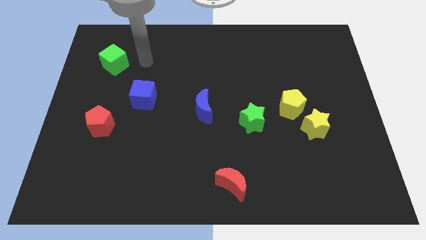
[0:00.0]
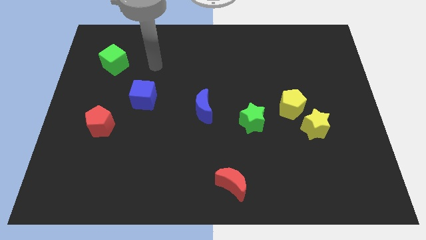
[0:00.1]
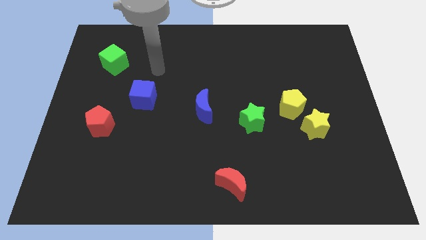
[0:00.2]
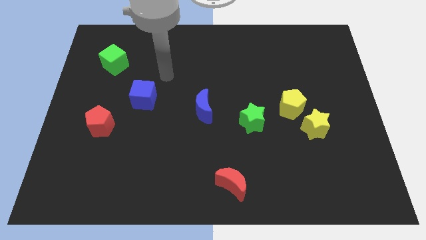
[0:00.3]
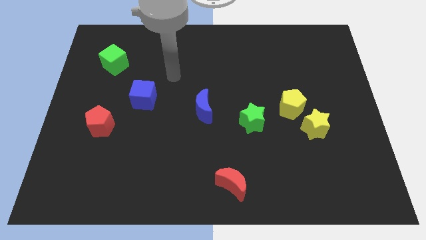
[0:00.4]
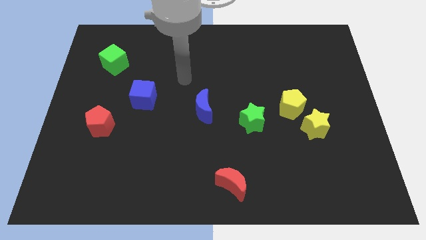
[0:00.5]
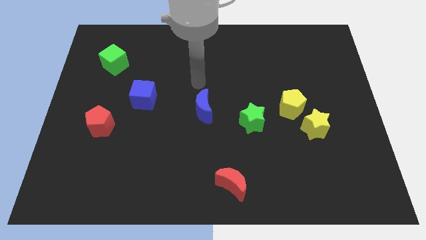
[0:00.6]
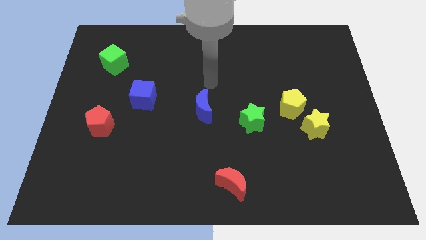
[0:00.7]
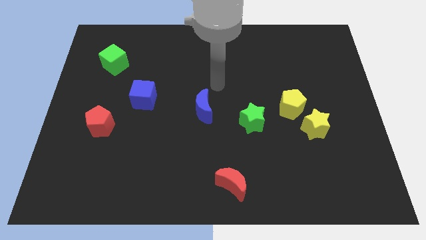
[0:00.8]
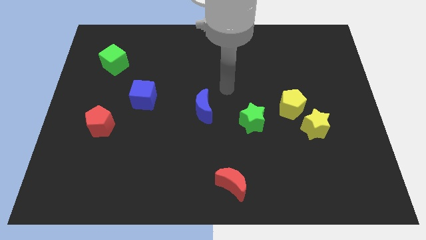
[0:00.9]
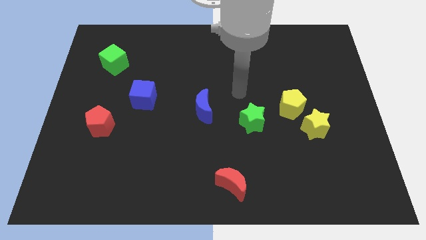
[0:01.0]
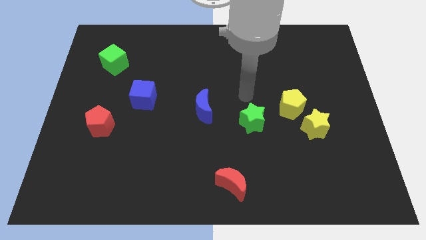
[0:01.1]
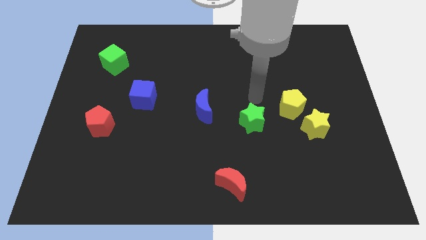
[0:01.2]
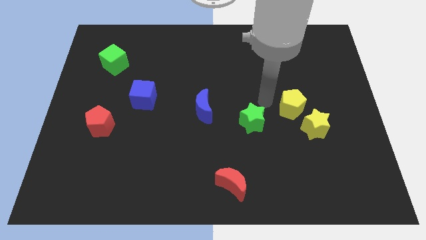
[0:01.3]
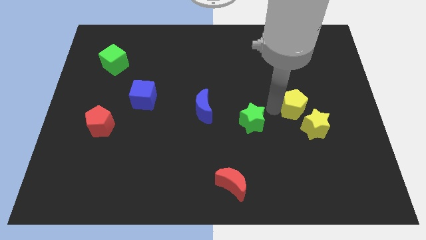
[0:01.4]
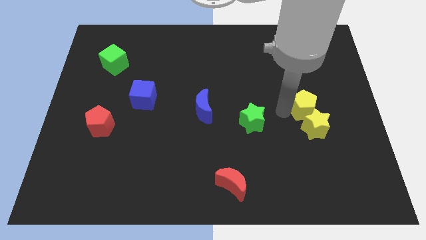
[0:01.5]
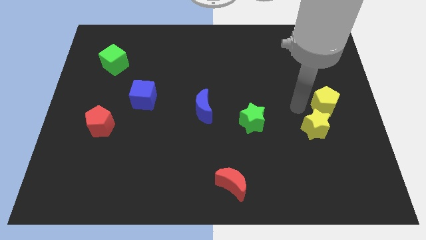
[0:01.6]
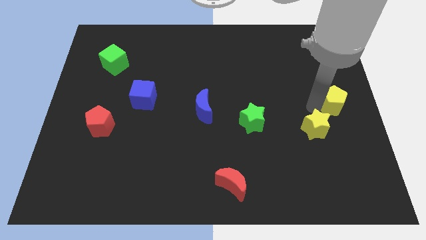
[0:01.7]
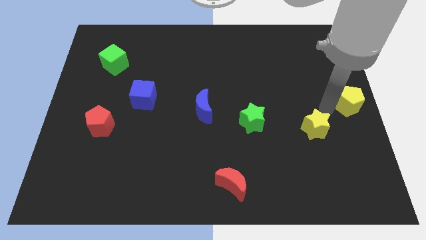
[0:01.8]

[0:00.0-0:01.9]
move the yellow star away from the yellow pentagon

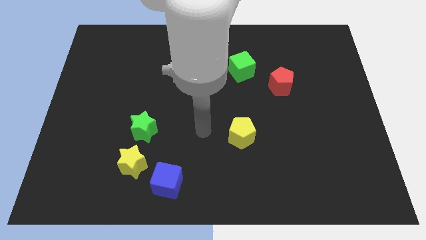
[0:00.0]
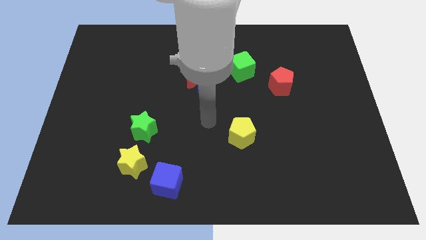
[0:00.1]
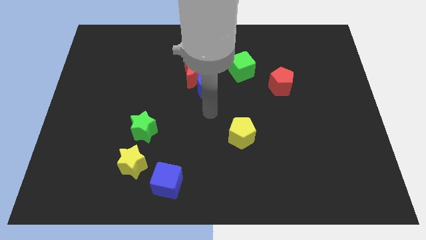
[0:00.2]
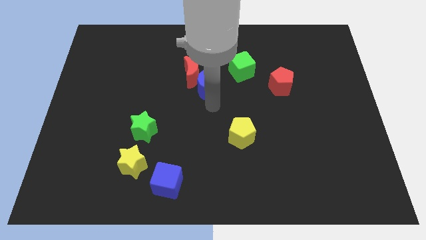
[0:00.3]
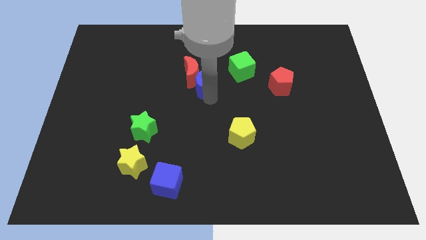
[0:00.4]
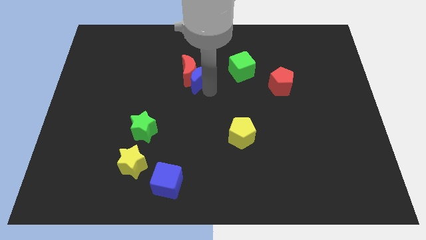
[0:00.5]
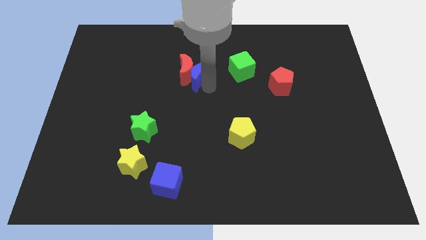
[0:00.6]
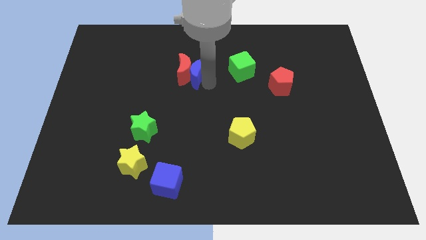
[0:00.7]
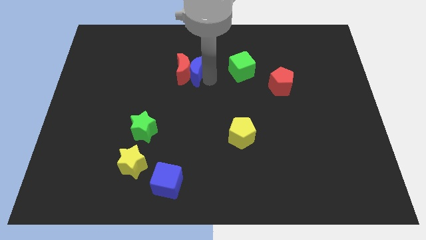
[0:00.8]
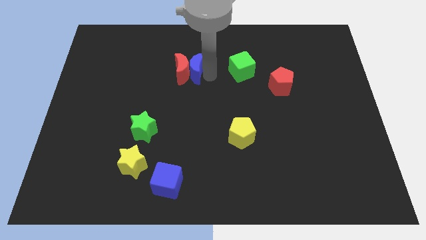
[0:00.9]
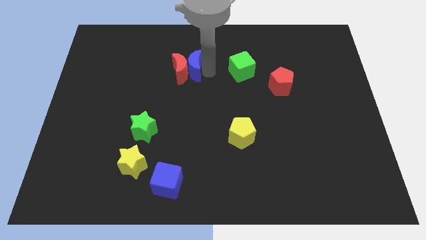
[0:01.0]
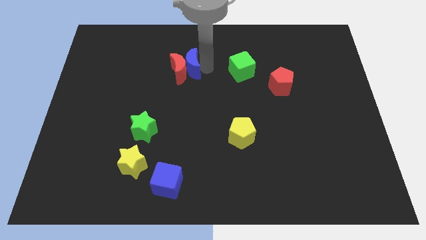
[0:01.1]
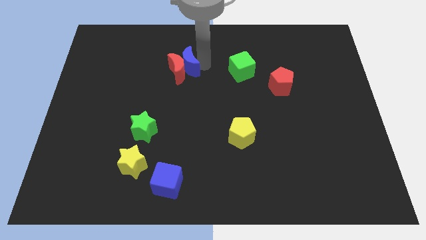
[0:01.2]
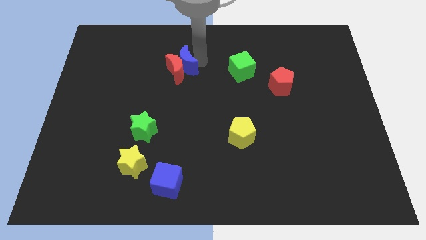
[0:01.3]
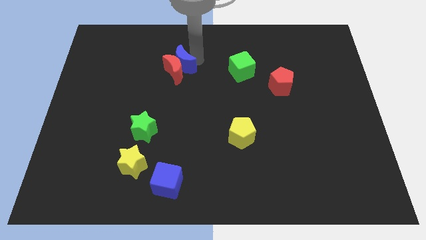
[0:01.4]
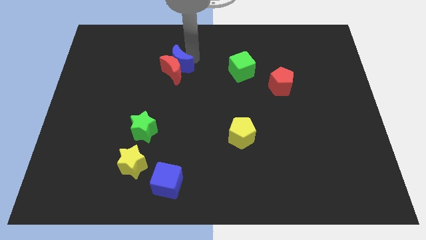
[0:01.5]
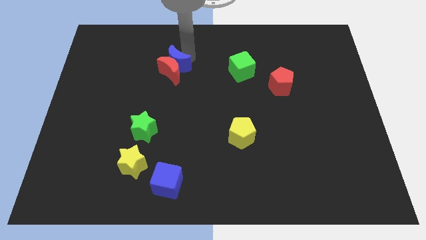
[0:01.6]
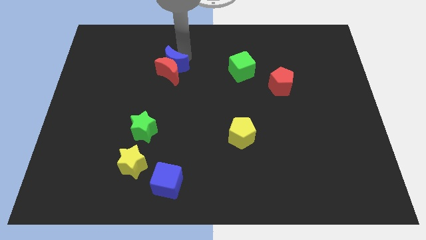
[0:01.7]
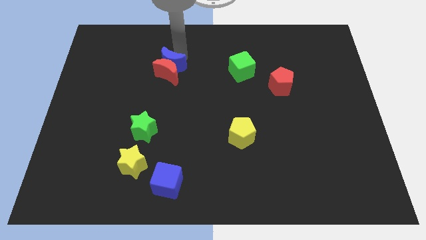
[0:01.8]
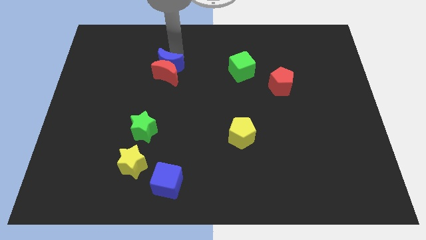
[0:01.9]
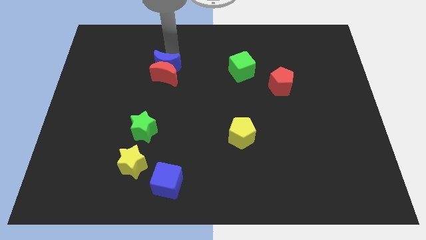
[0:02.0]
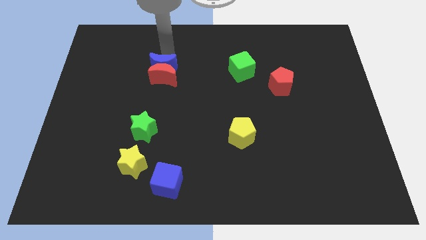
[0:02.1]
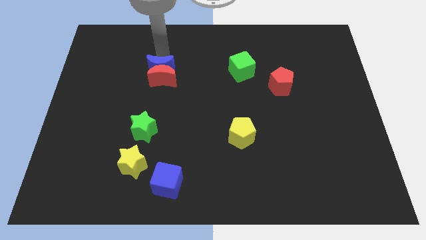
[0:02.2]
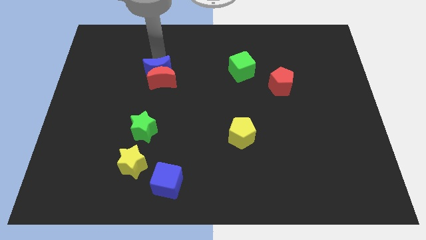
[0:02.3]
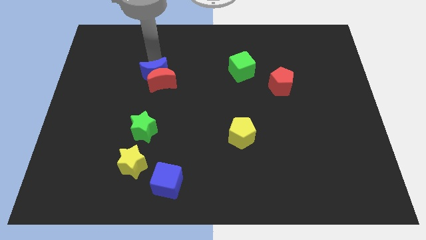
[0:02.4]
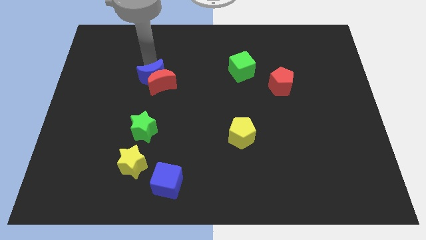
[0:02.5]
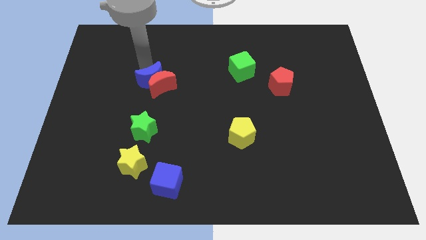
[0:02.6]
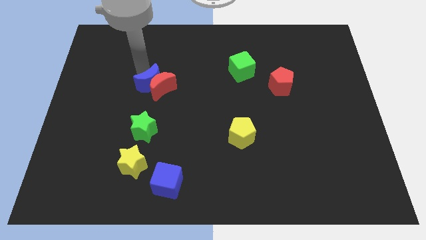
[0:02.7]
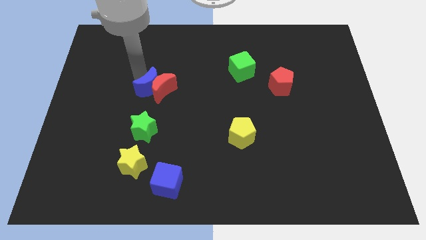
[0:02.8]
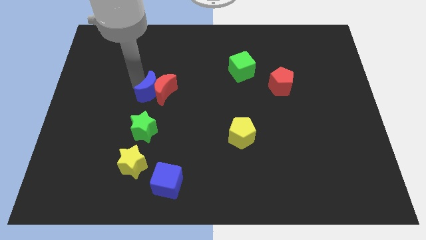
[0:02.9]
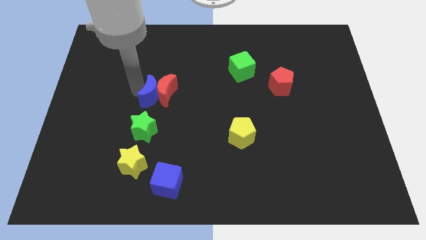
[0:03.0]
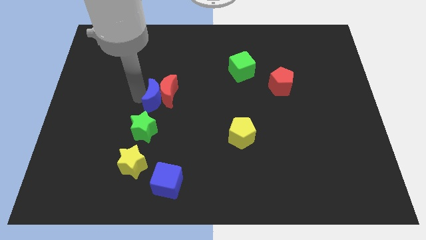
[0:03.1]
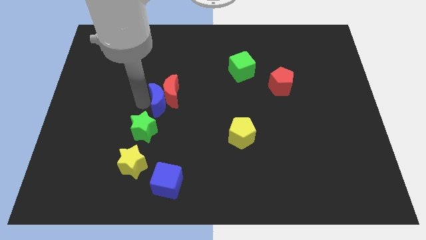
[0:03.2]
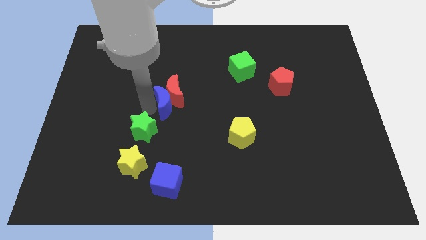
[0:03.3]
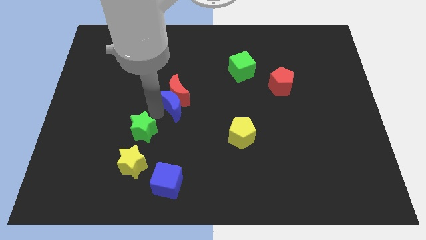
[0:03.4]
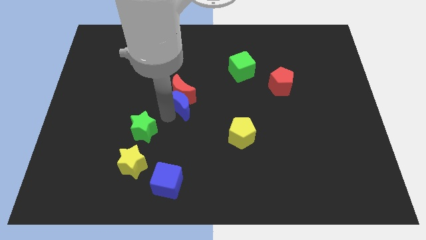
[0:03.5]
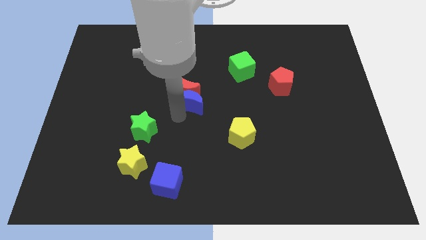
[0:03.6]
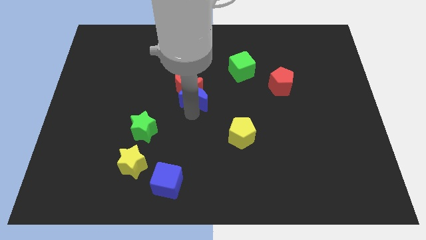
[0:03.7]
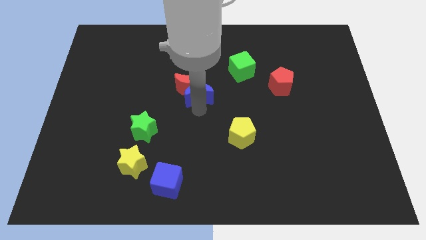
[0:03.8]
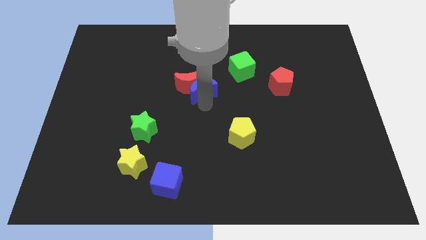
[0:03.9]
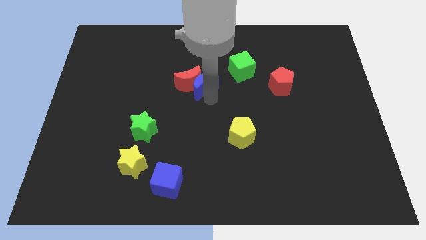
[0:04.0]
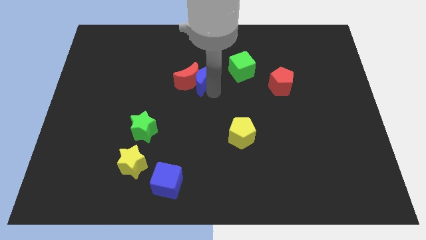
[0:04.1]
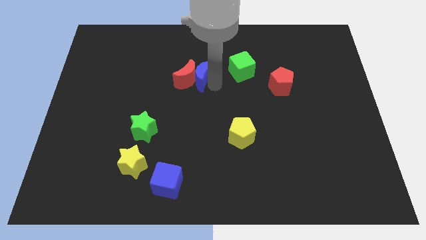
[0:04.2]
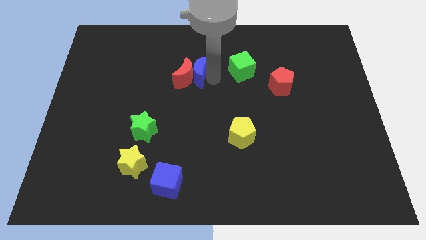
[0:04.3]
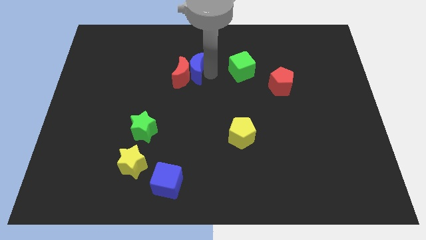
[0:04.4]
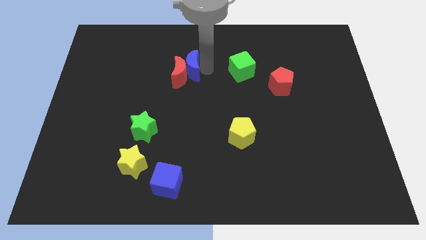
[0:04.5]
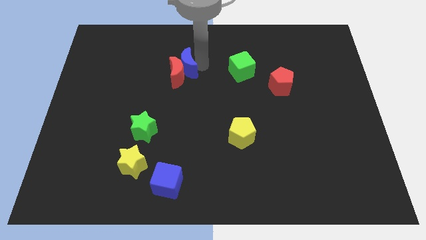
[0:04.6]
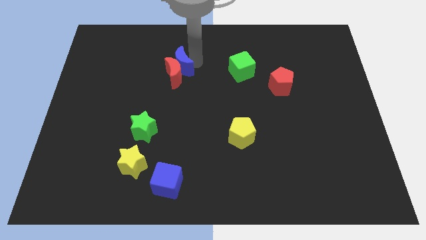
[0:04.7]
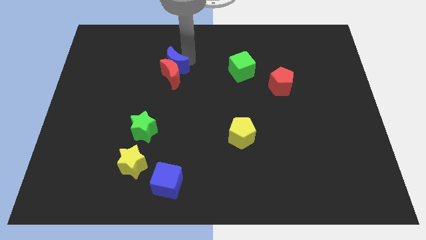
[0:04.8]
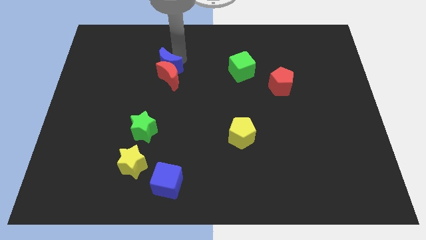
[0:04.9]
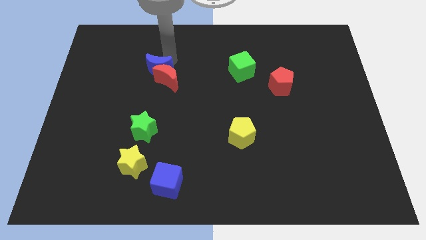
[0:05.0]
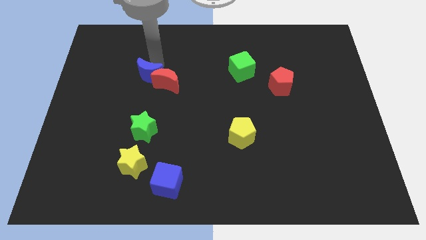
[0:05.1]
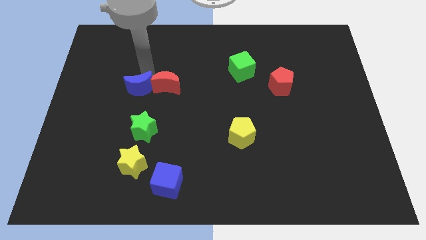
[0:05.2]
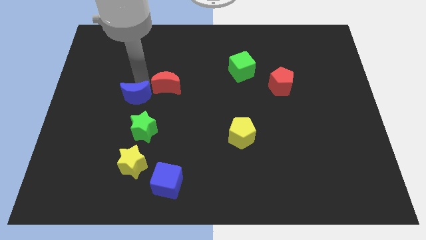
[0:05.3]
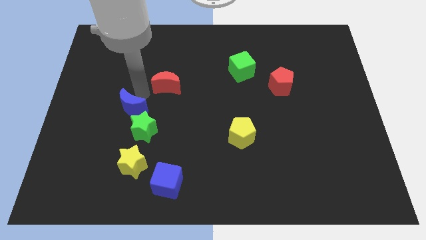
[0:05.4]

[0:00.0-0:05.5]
separate the red moon from the blue moon

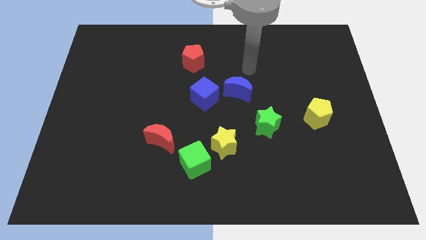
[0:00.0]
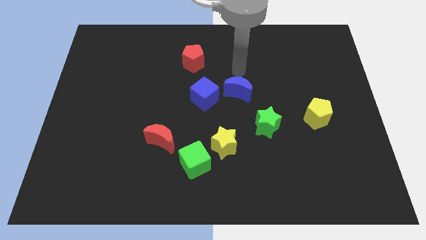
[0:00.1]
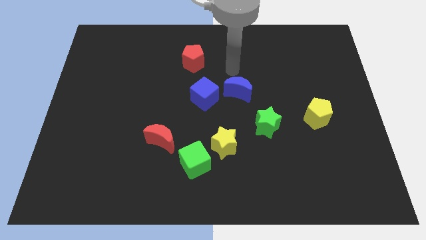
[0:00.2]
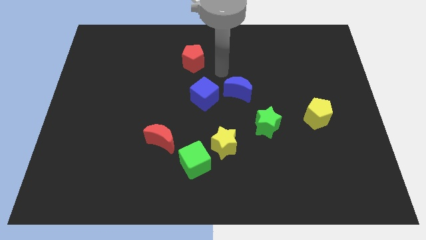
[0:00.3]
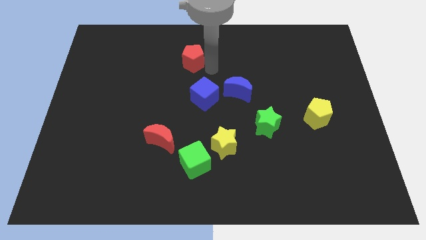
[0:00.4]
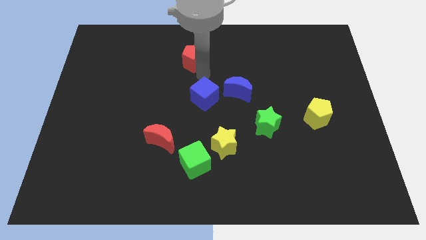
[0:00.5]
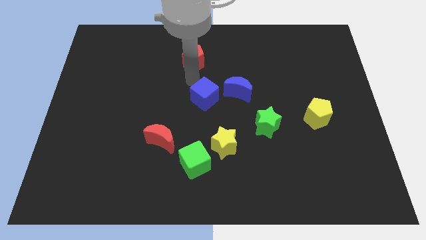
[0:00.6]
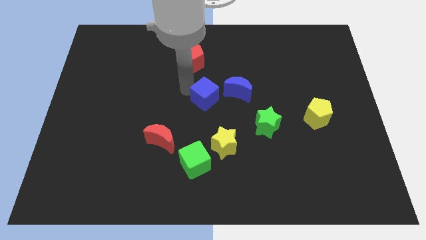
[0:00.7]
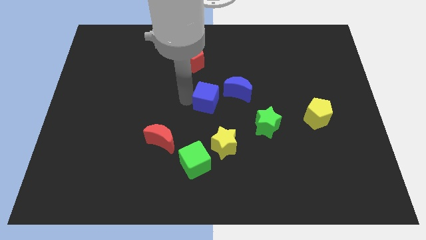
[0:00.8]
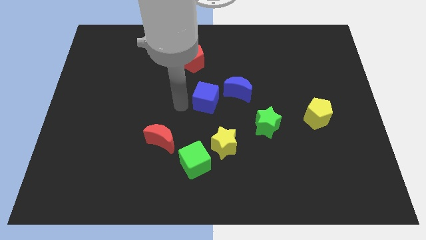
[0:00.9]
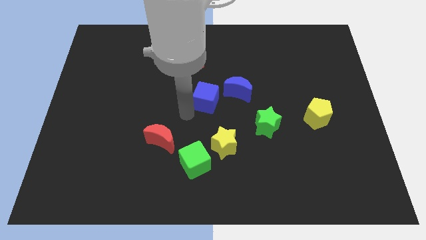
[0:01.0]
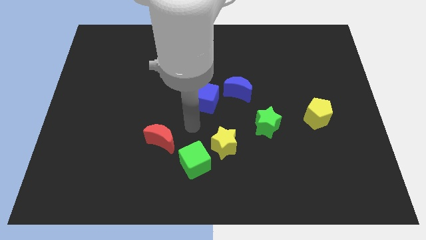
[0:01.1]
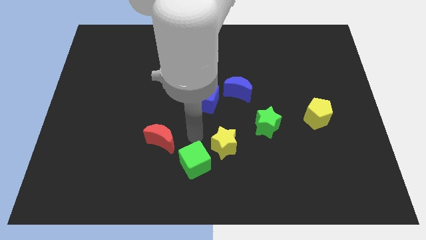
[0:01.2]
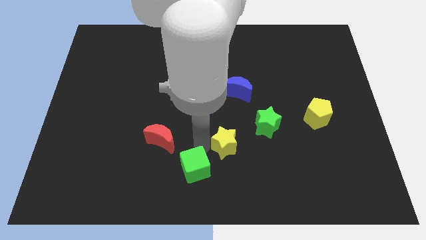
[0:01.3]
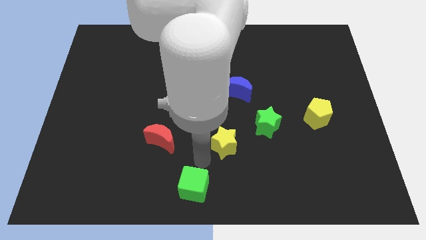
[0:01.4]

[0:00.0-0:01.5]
pull the yellow star apart from the green cube

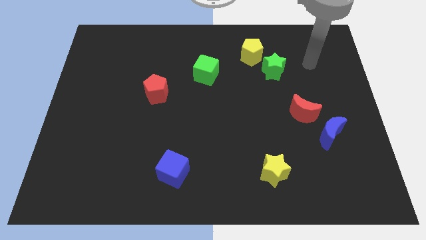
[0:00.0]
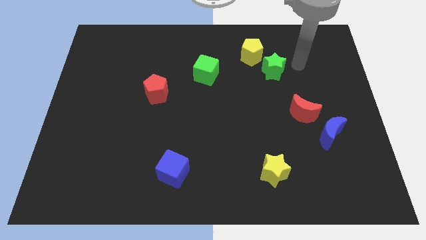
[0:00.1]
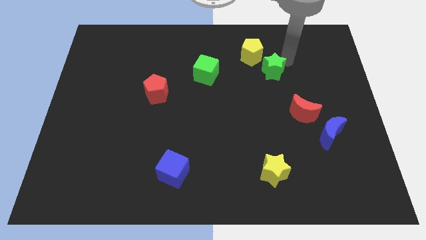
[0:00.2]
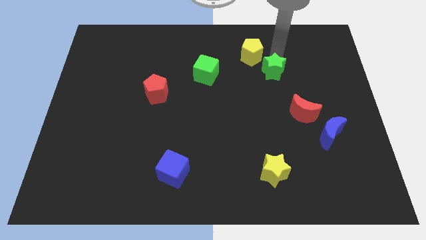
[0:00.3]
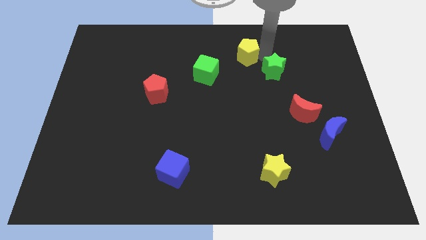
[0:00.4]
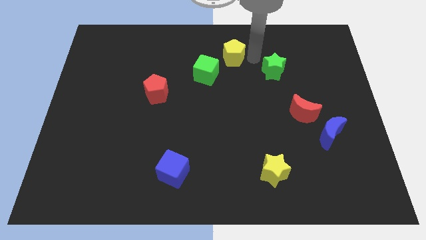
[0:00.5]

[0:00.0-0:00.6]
move the green star away from the yellow pentagon
